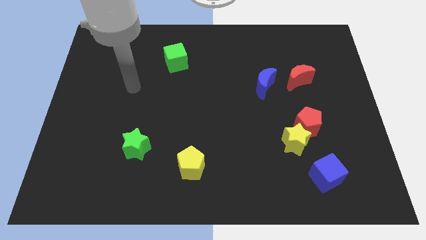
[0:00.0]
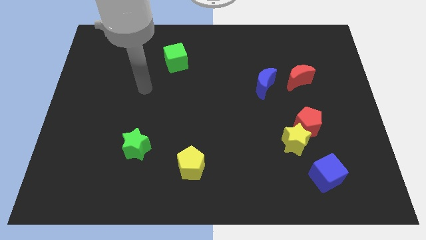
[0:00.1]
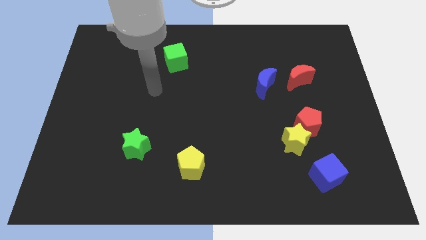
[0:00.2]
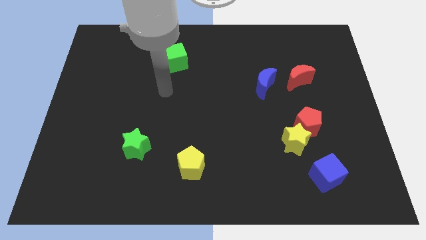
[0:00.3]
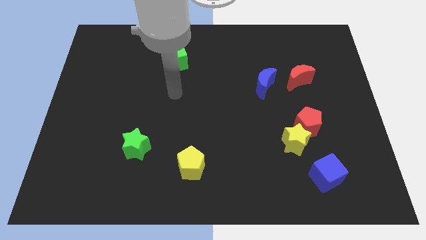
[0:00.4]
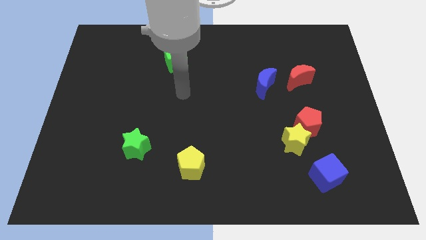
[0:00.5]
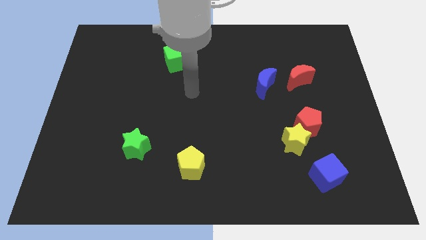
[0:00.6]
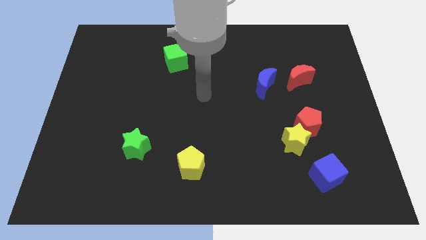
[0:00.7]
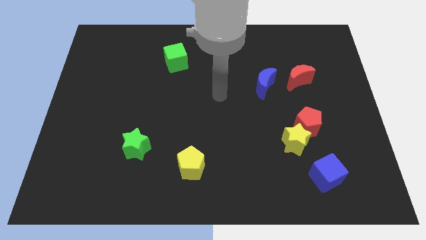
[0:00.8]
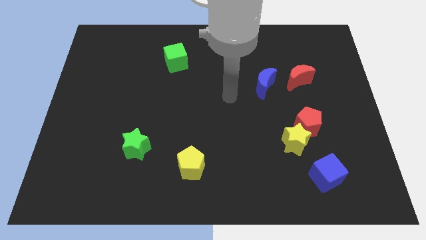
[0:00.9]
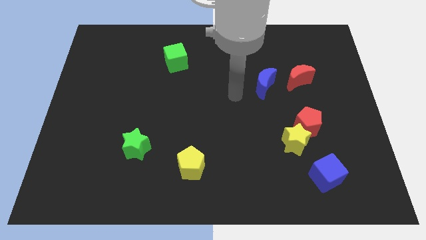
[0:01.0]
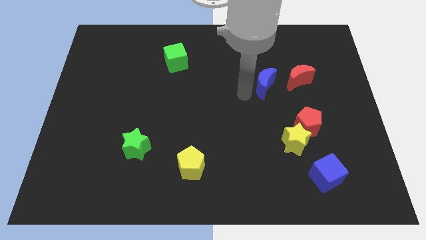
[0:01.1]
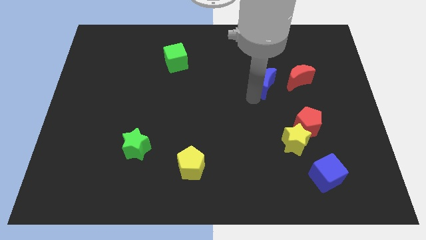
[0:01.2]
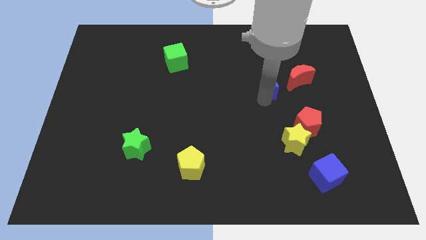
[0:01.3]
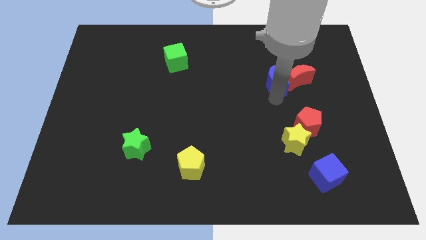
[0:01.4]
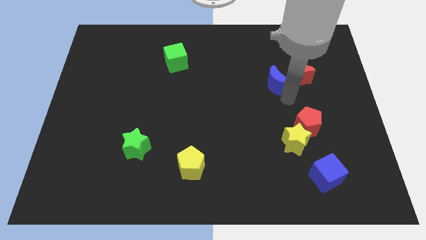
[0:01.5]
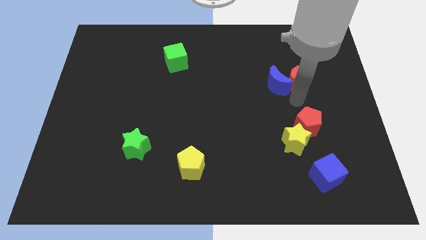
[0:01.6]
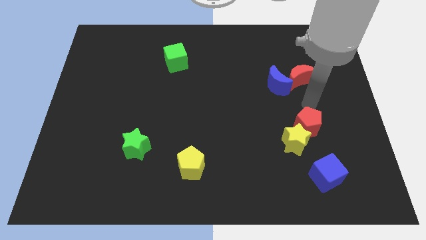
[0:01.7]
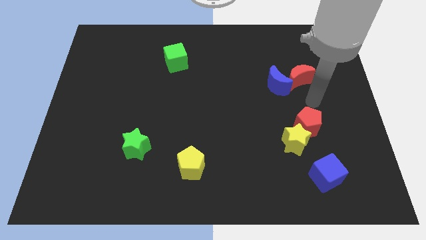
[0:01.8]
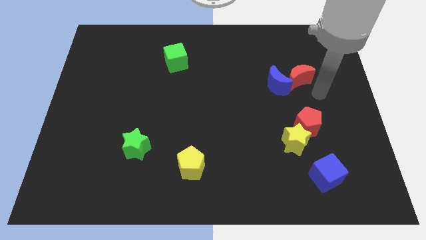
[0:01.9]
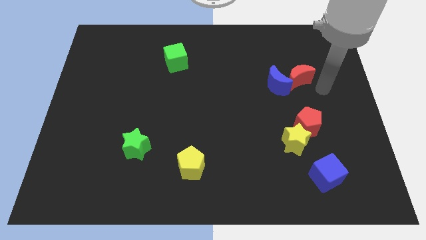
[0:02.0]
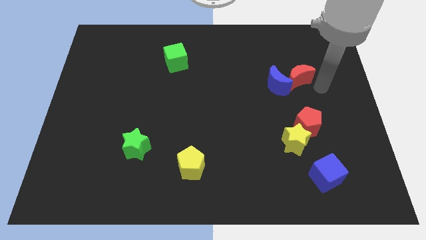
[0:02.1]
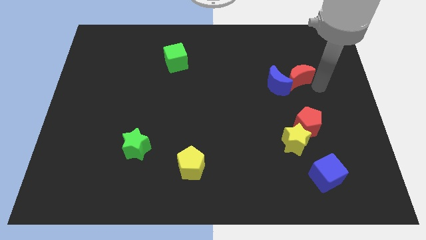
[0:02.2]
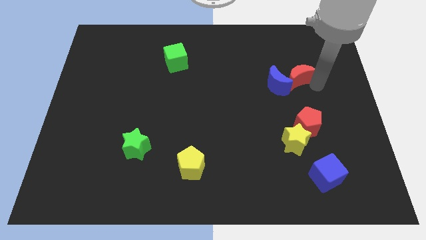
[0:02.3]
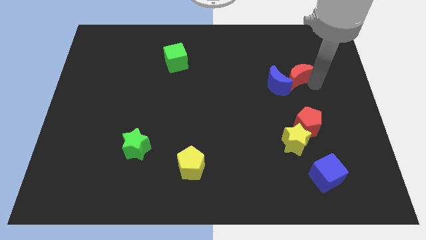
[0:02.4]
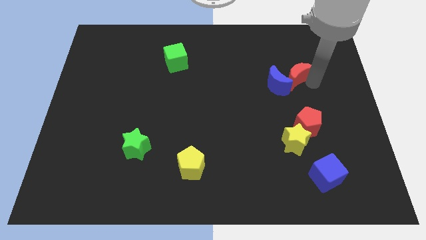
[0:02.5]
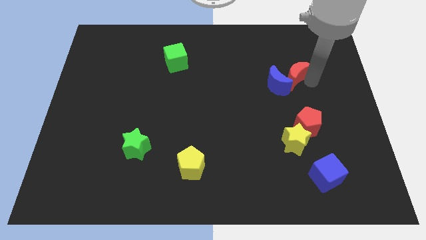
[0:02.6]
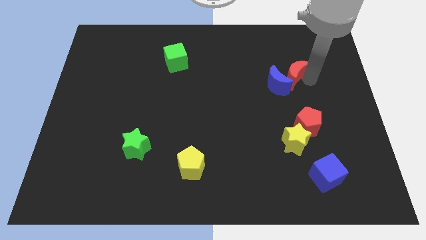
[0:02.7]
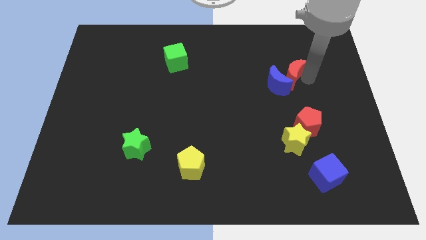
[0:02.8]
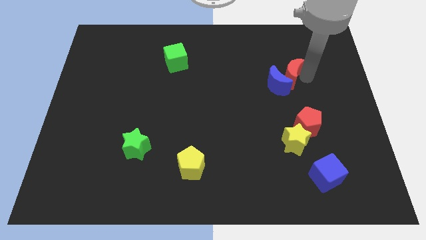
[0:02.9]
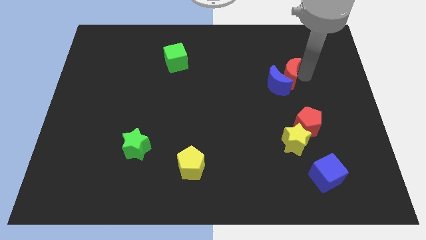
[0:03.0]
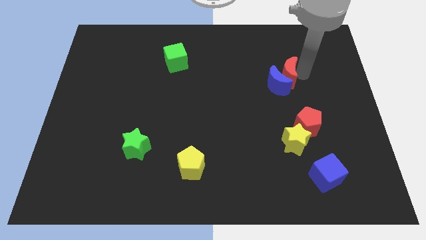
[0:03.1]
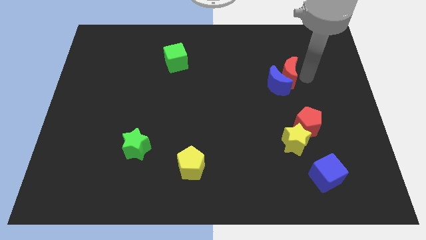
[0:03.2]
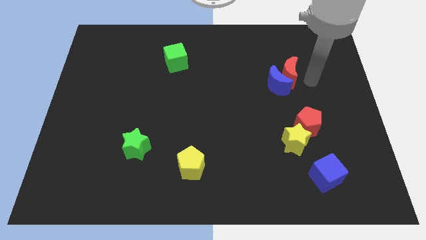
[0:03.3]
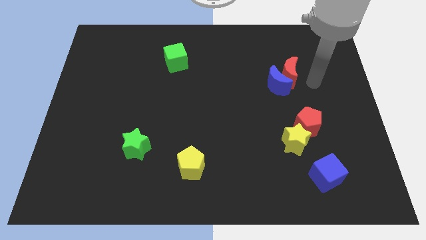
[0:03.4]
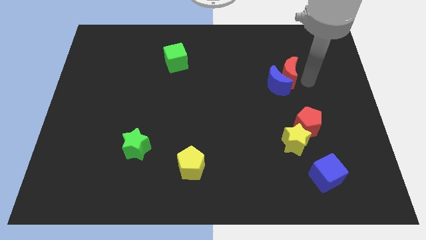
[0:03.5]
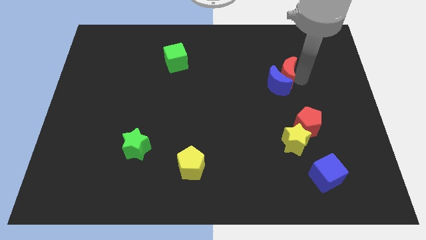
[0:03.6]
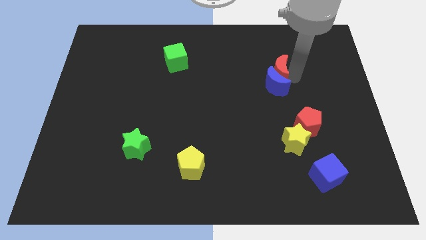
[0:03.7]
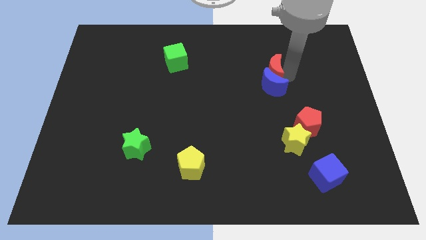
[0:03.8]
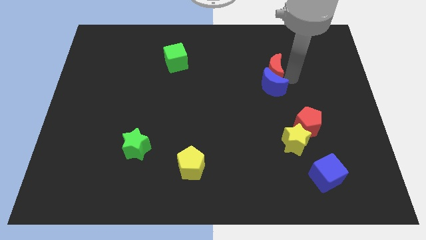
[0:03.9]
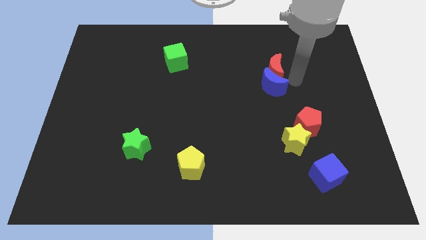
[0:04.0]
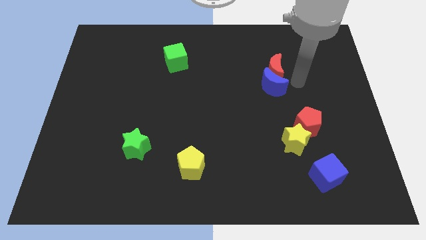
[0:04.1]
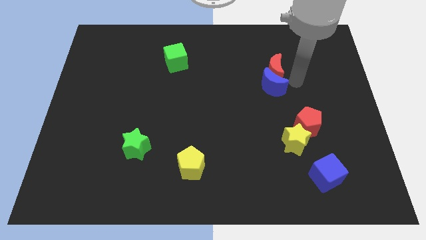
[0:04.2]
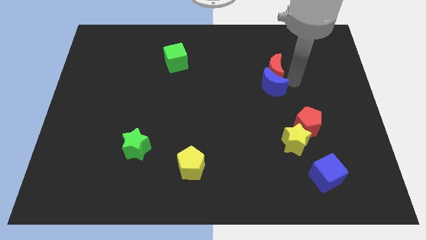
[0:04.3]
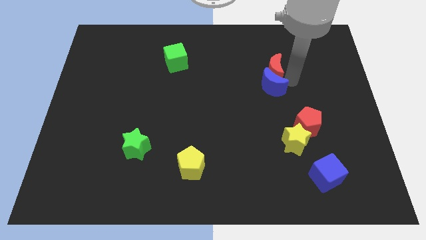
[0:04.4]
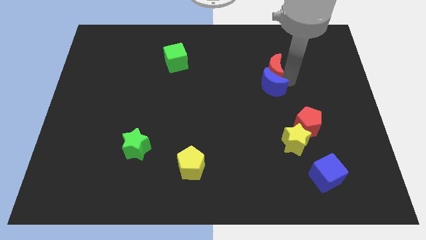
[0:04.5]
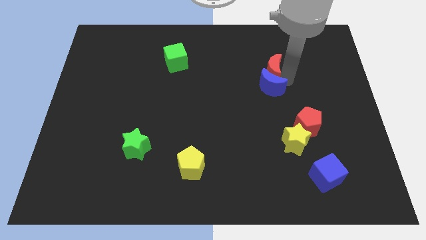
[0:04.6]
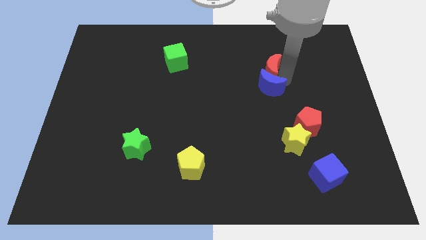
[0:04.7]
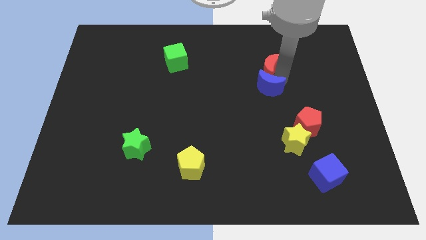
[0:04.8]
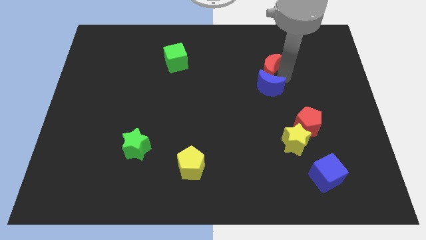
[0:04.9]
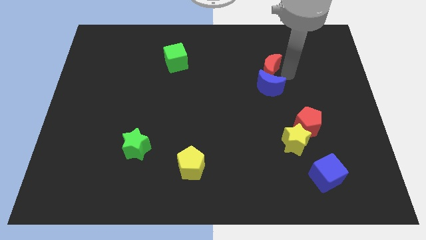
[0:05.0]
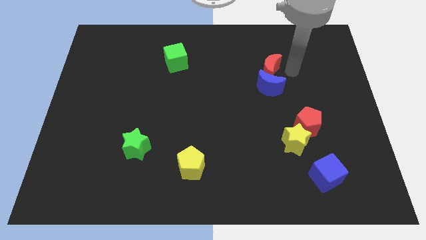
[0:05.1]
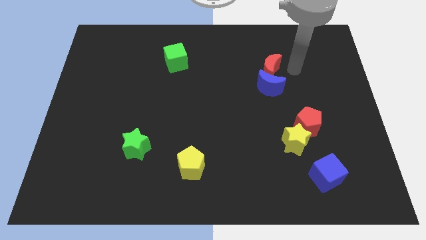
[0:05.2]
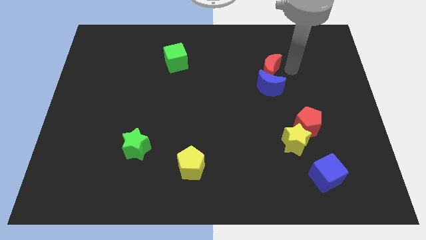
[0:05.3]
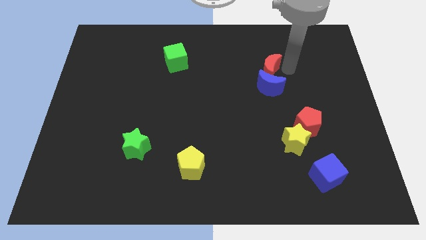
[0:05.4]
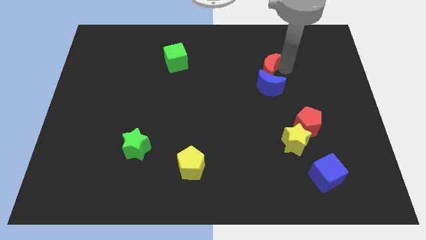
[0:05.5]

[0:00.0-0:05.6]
slide the red moon a little to the left

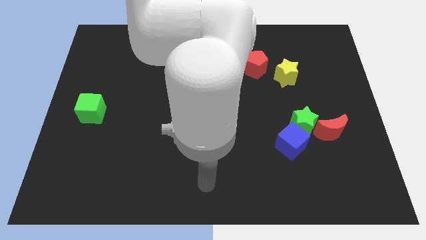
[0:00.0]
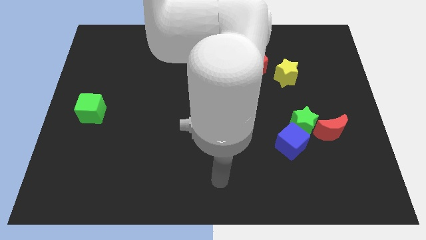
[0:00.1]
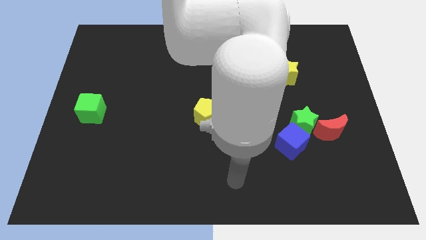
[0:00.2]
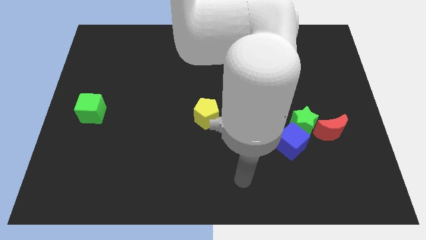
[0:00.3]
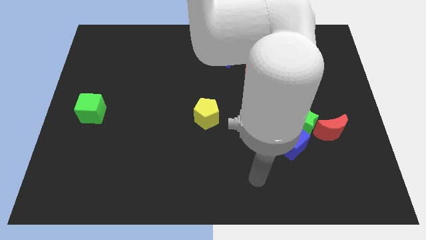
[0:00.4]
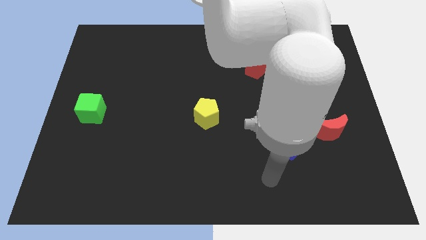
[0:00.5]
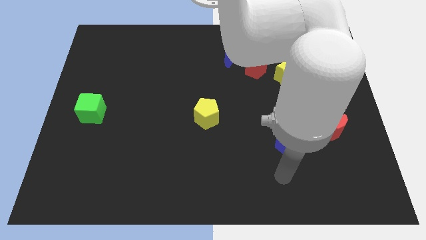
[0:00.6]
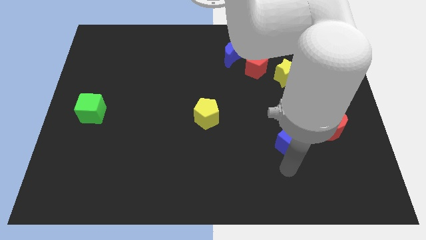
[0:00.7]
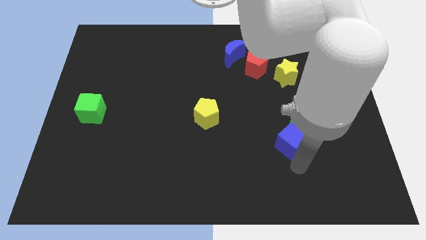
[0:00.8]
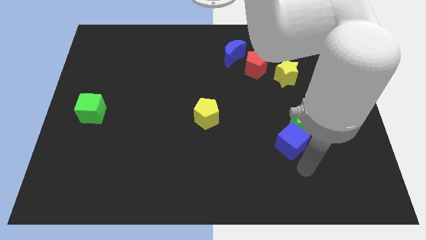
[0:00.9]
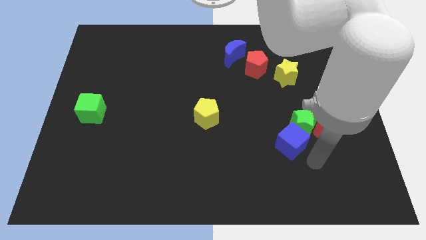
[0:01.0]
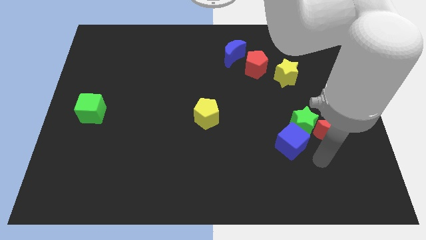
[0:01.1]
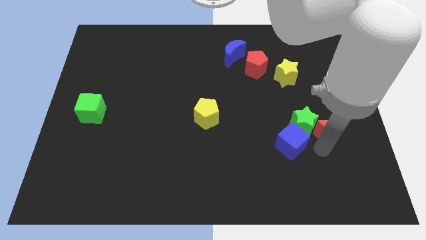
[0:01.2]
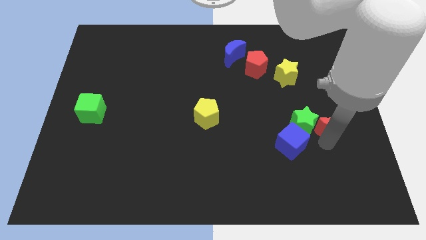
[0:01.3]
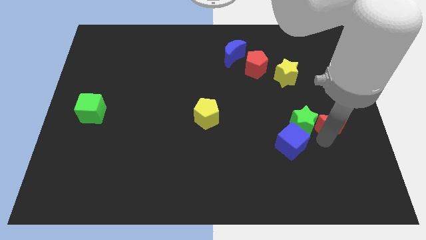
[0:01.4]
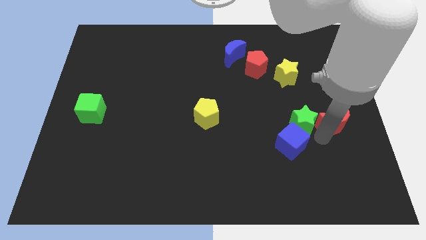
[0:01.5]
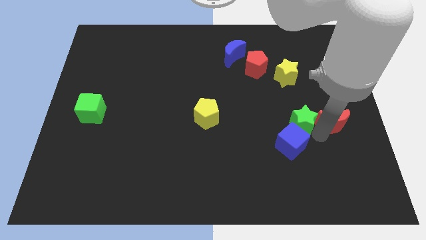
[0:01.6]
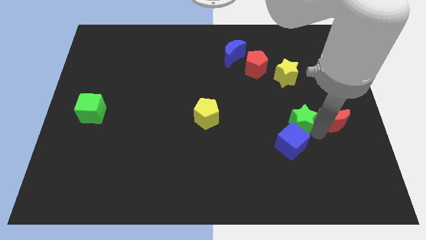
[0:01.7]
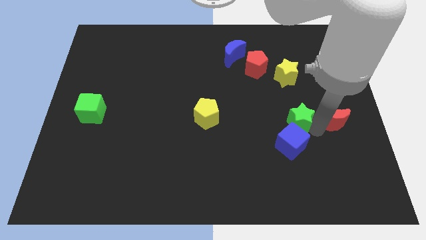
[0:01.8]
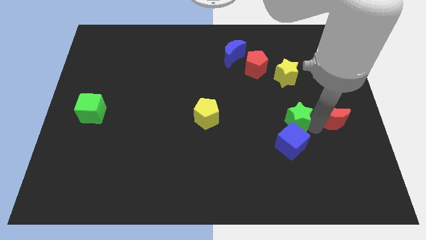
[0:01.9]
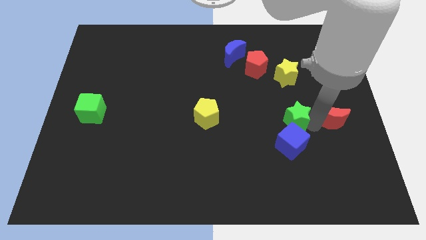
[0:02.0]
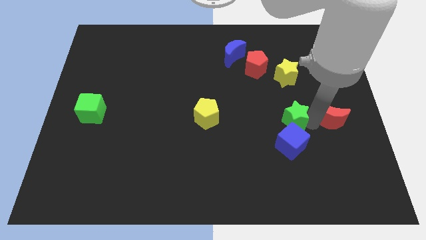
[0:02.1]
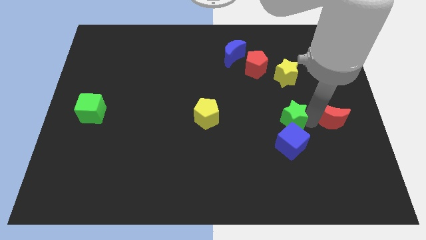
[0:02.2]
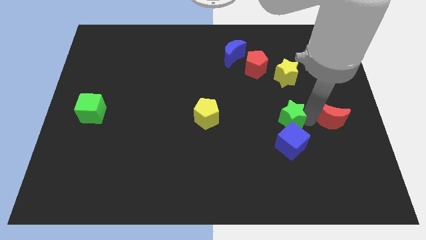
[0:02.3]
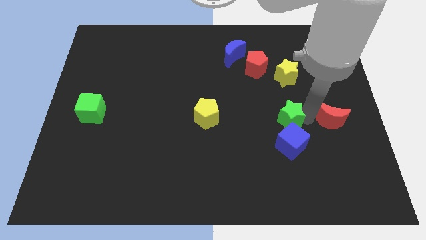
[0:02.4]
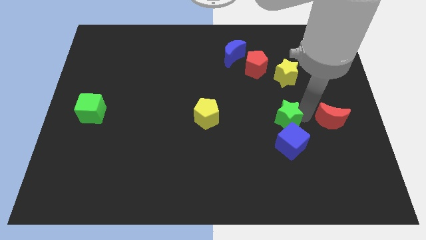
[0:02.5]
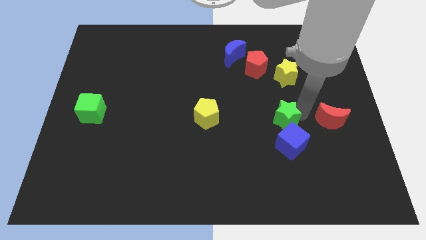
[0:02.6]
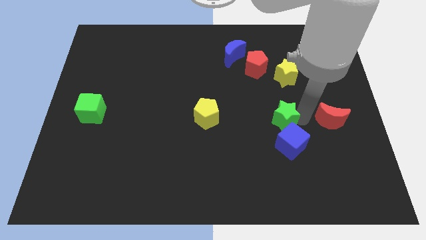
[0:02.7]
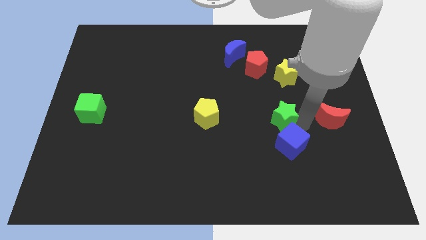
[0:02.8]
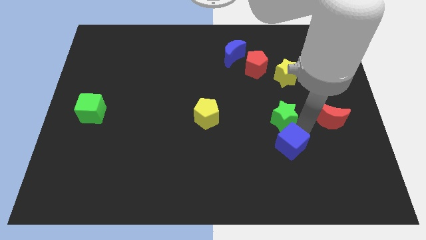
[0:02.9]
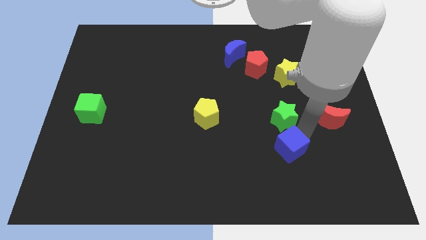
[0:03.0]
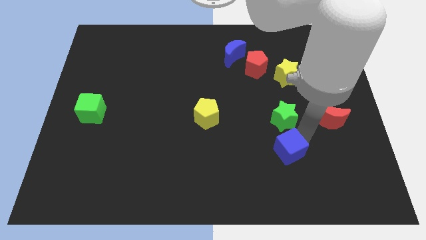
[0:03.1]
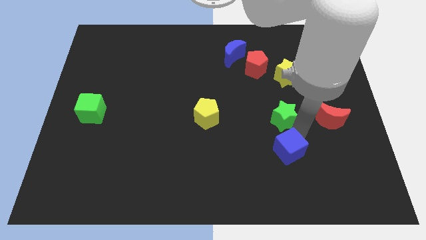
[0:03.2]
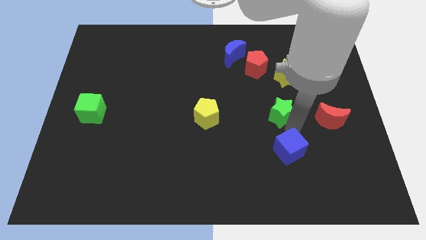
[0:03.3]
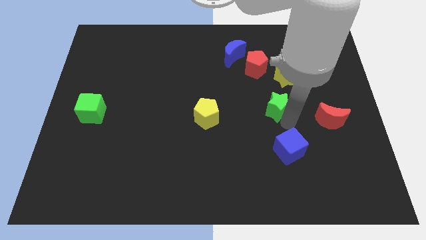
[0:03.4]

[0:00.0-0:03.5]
slightly move the green star upwards and then left
